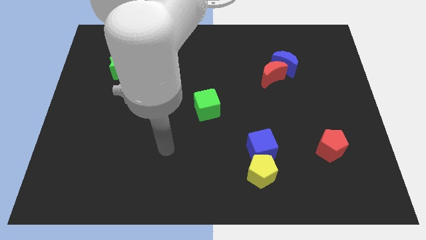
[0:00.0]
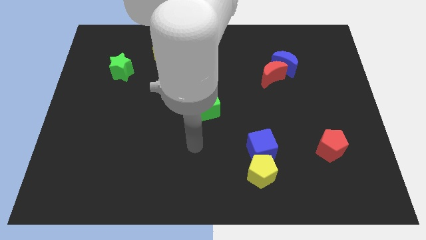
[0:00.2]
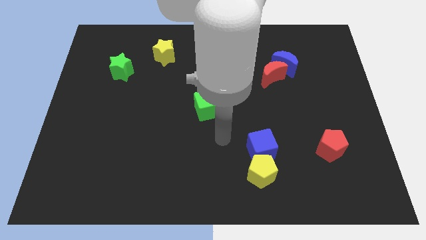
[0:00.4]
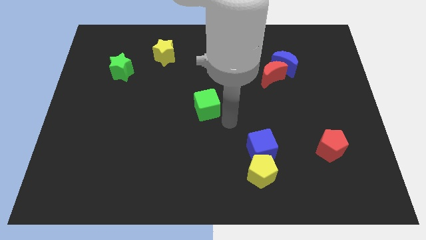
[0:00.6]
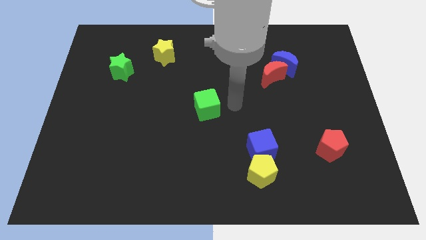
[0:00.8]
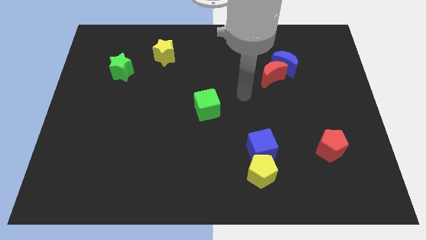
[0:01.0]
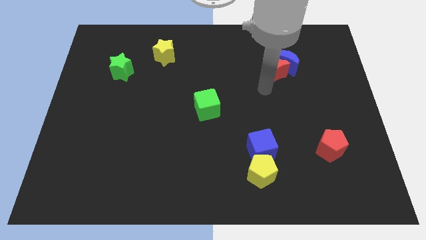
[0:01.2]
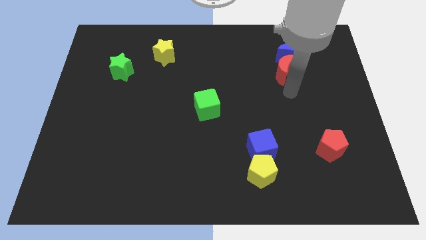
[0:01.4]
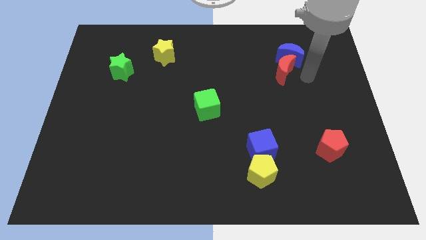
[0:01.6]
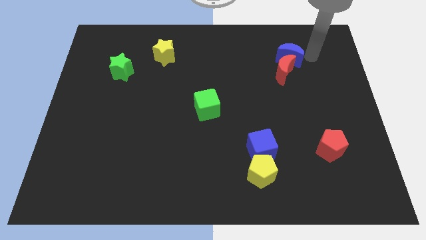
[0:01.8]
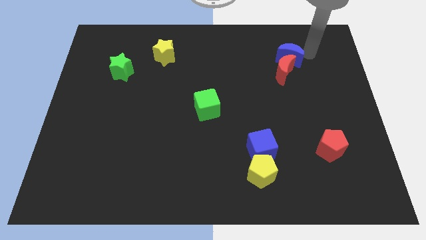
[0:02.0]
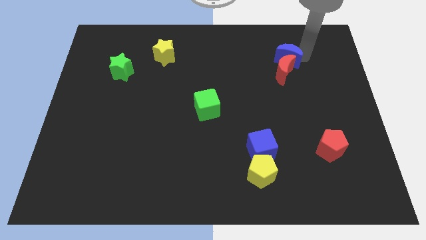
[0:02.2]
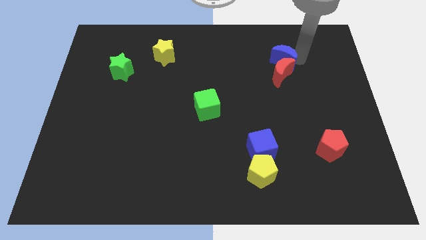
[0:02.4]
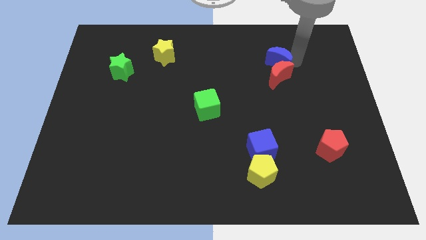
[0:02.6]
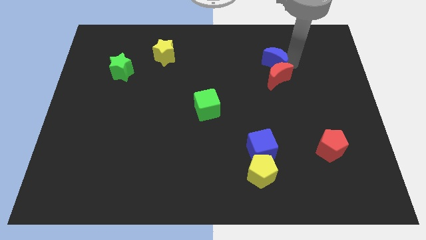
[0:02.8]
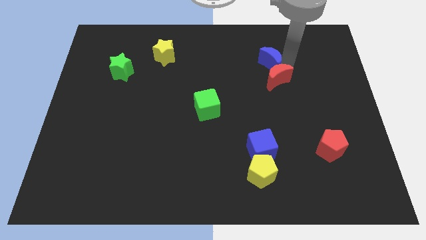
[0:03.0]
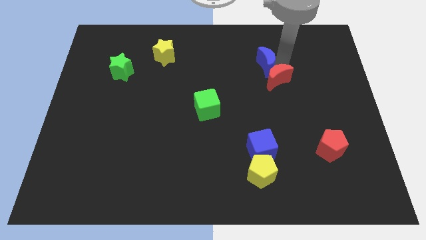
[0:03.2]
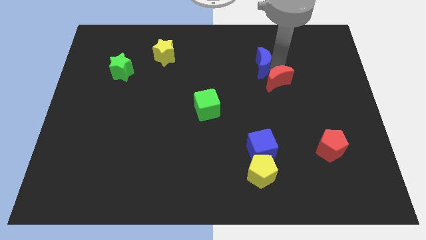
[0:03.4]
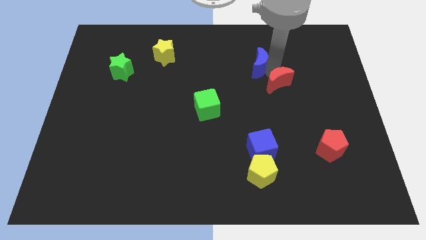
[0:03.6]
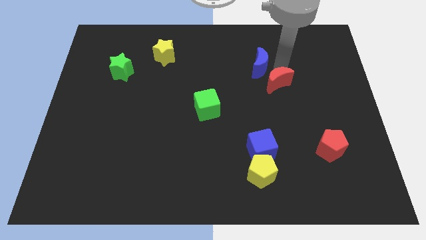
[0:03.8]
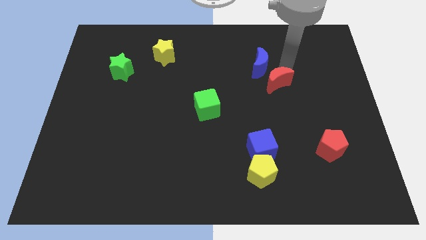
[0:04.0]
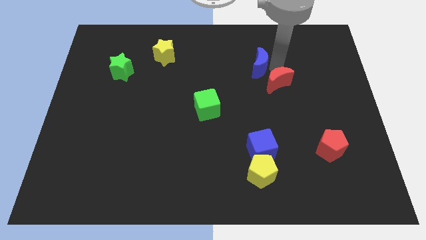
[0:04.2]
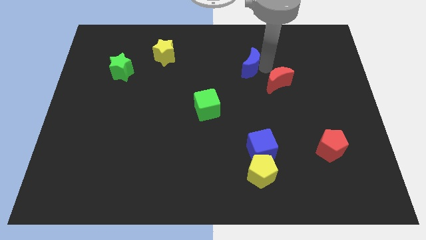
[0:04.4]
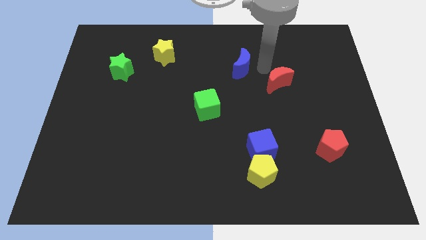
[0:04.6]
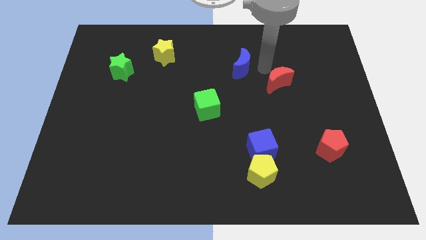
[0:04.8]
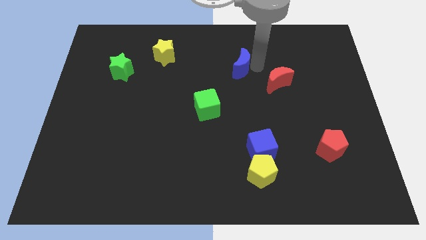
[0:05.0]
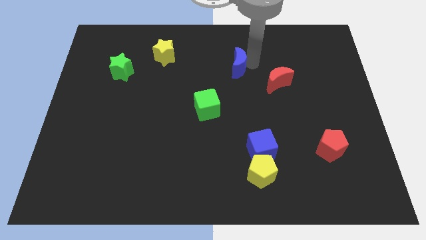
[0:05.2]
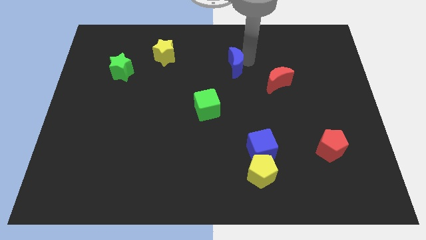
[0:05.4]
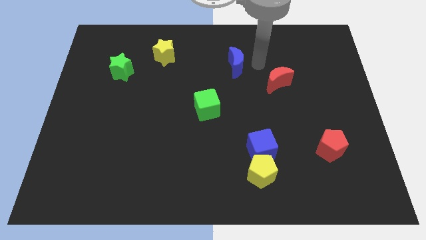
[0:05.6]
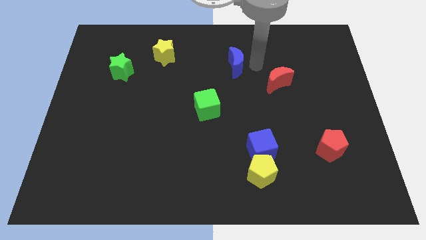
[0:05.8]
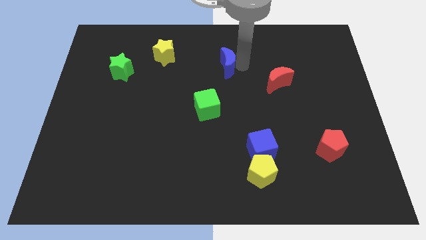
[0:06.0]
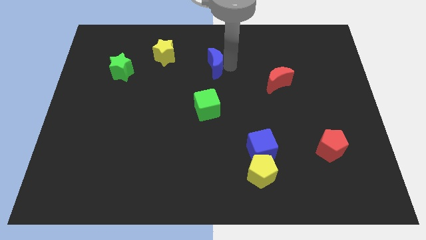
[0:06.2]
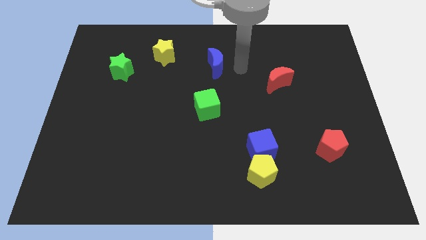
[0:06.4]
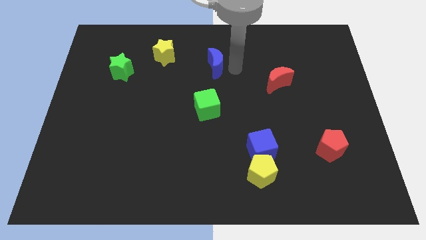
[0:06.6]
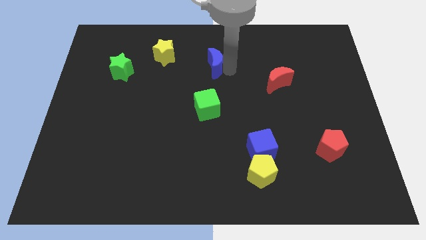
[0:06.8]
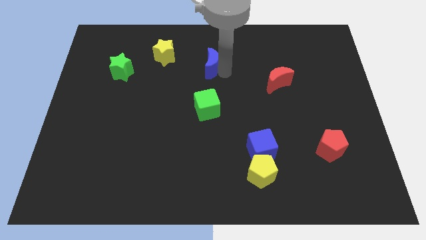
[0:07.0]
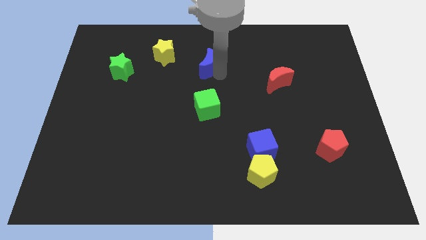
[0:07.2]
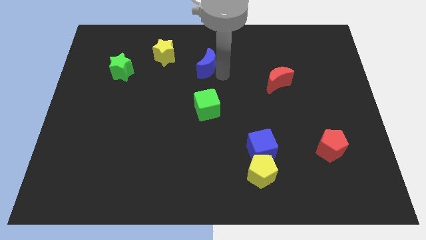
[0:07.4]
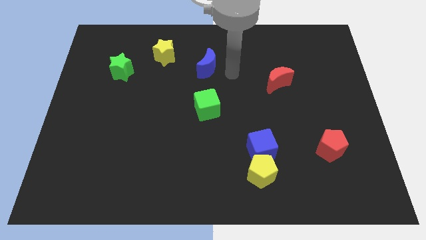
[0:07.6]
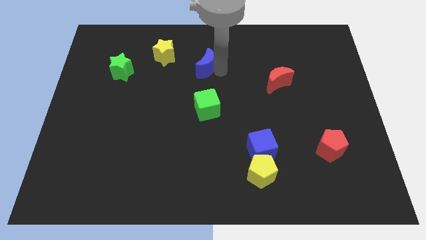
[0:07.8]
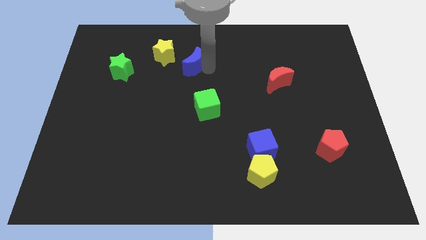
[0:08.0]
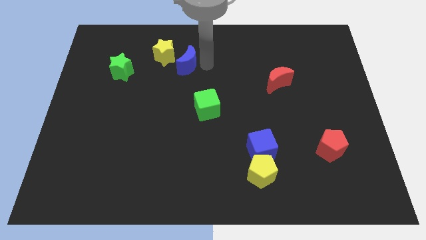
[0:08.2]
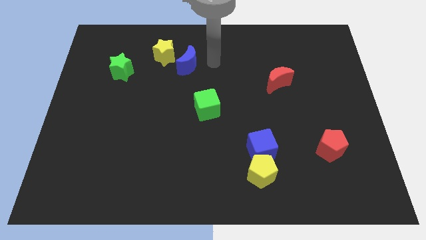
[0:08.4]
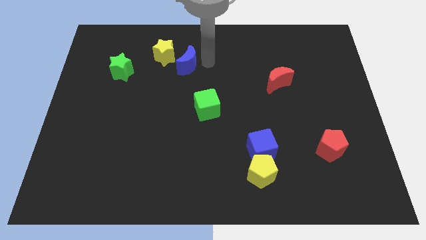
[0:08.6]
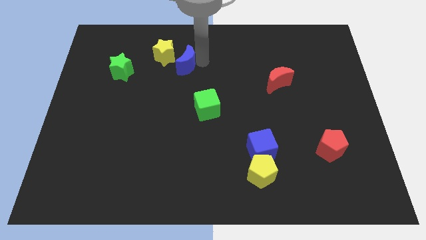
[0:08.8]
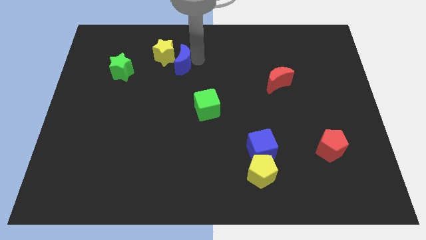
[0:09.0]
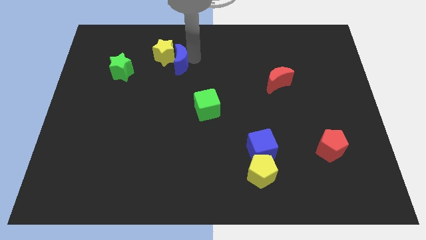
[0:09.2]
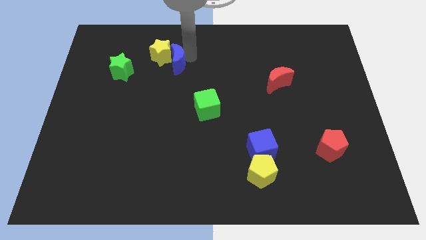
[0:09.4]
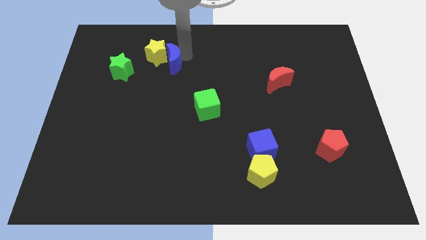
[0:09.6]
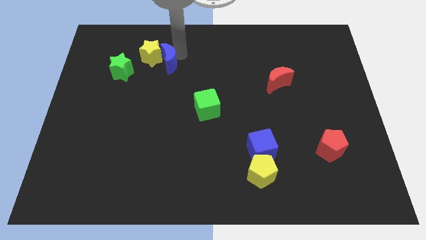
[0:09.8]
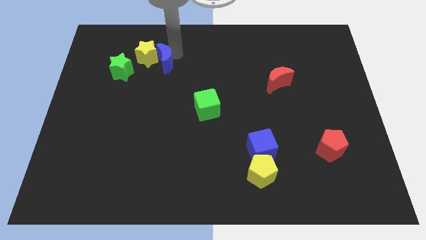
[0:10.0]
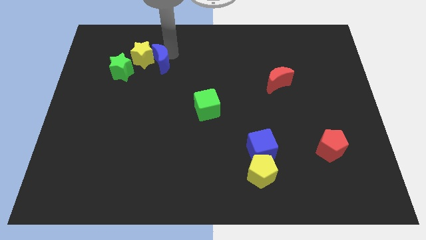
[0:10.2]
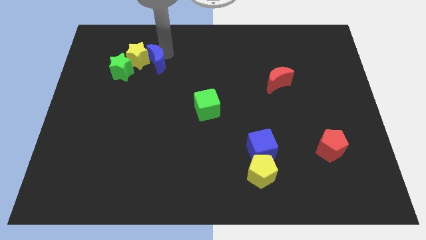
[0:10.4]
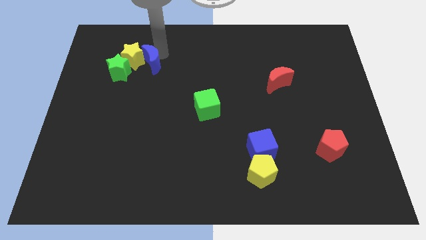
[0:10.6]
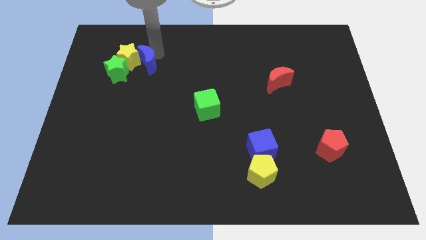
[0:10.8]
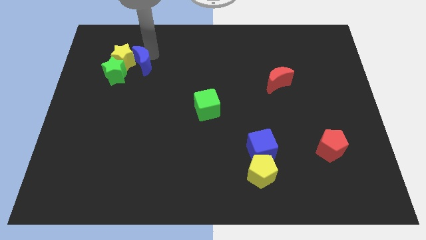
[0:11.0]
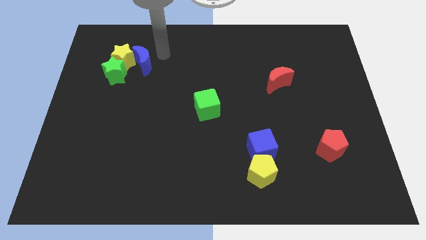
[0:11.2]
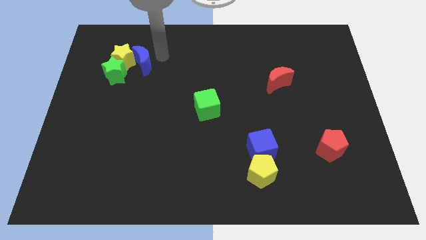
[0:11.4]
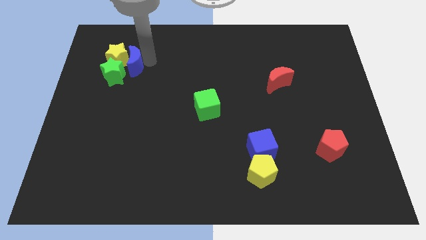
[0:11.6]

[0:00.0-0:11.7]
push the blue moon close to the green star

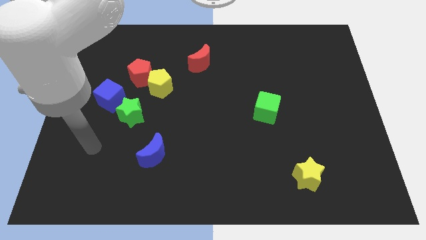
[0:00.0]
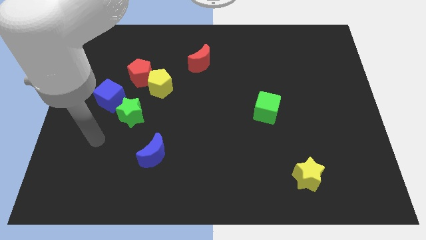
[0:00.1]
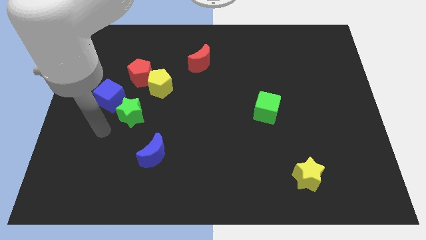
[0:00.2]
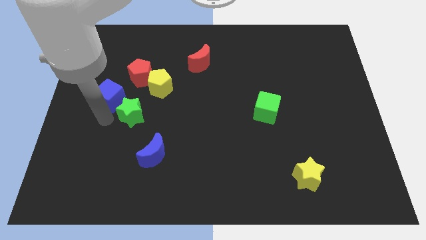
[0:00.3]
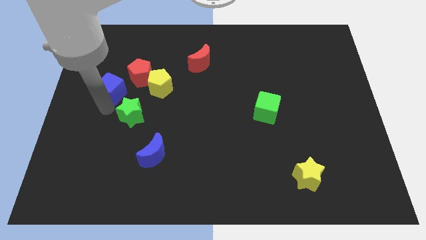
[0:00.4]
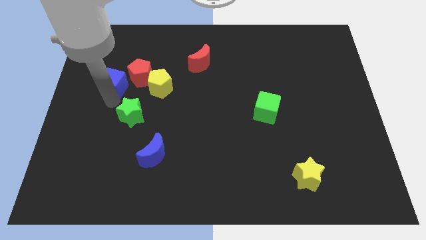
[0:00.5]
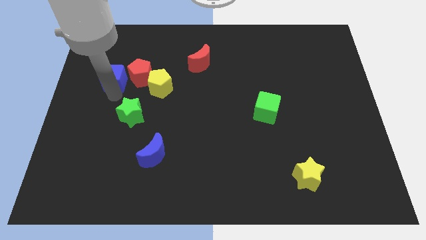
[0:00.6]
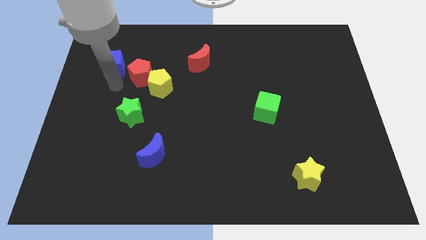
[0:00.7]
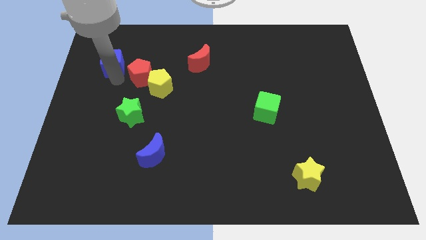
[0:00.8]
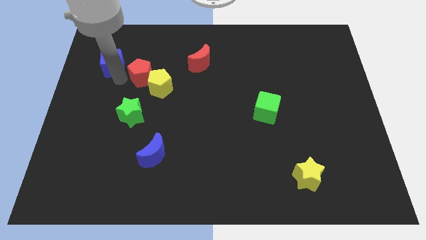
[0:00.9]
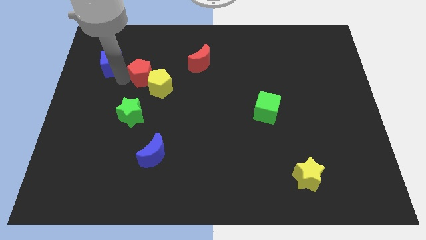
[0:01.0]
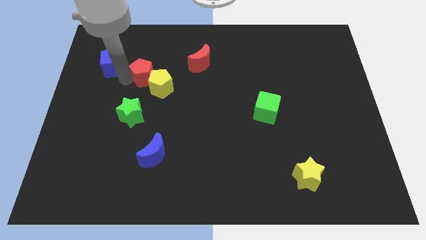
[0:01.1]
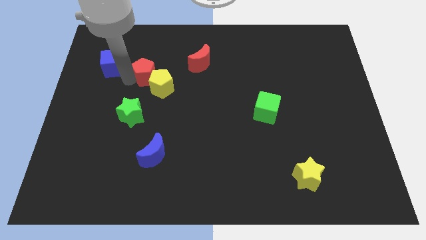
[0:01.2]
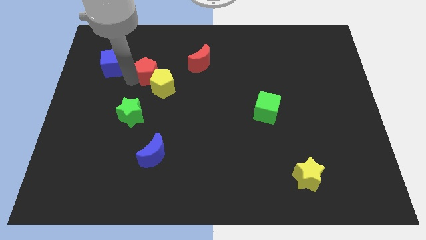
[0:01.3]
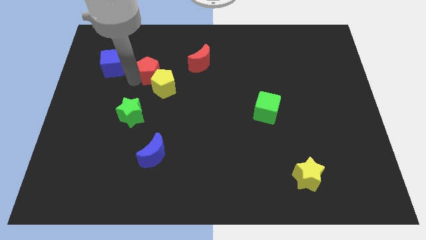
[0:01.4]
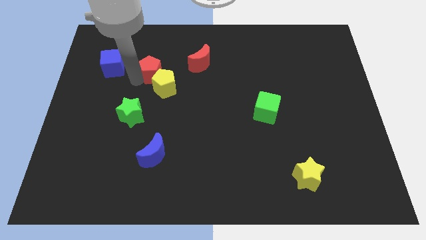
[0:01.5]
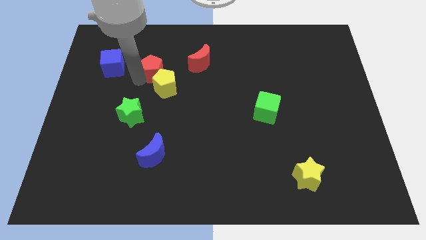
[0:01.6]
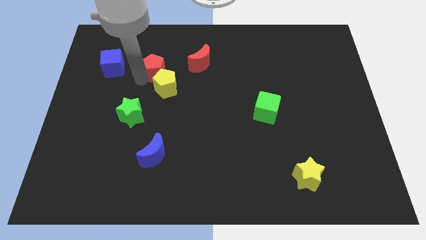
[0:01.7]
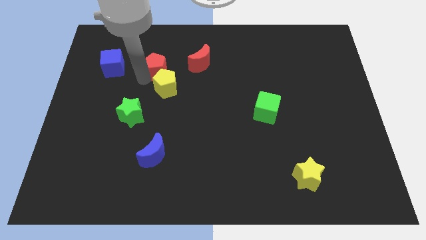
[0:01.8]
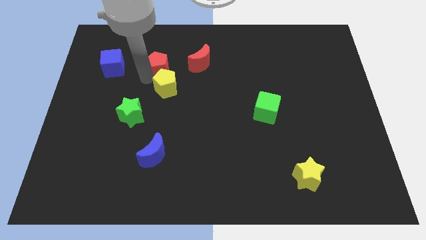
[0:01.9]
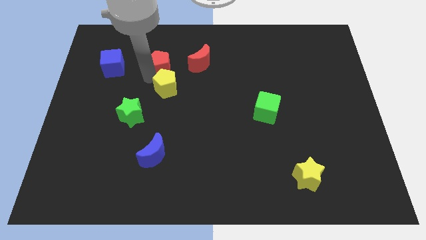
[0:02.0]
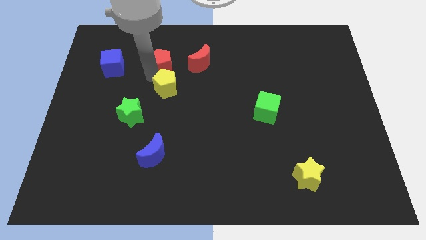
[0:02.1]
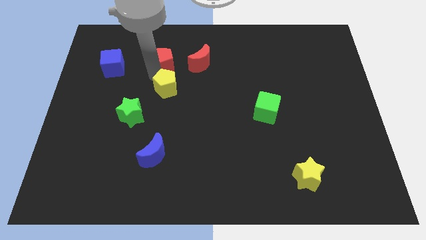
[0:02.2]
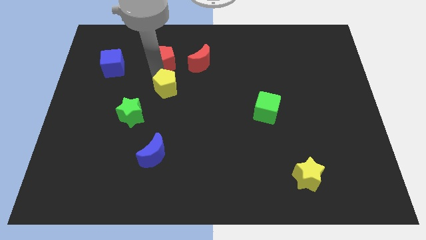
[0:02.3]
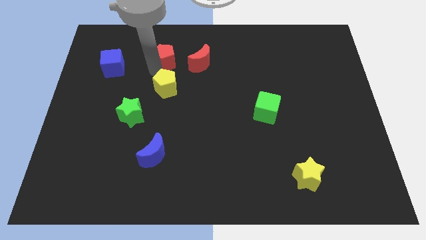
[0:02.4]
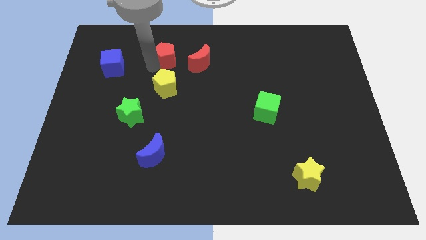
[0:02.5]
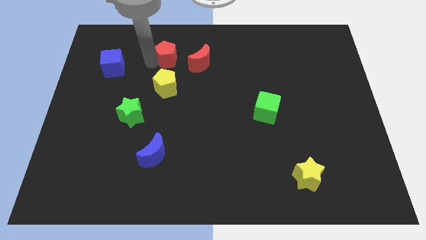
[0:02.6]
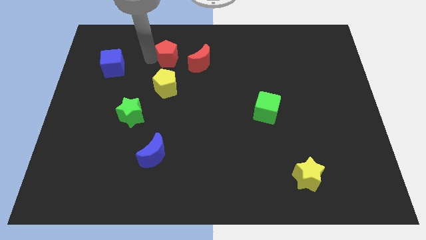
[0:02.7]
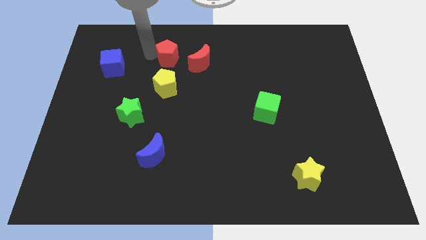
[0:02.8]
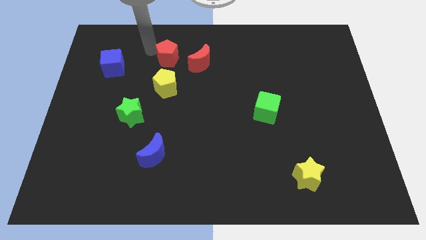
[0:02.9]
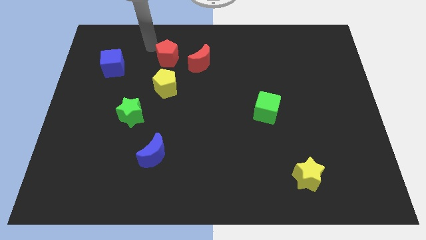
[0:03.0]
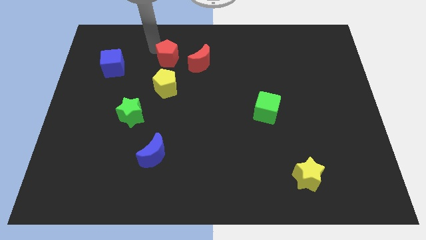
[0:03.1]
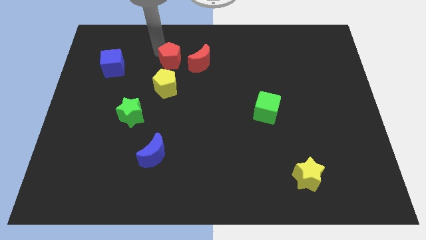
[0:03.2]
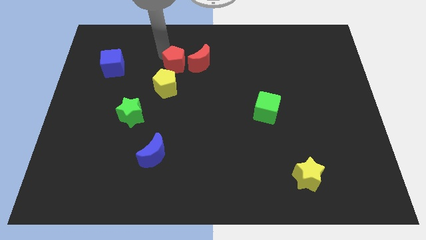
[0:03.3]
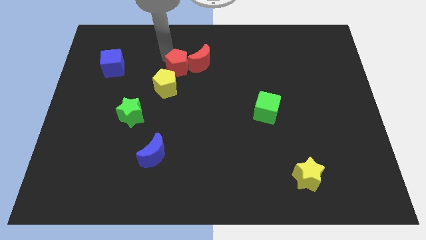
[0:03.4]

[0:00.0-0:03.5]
push the red pentagon towards the red moon
